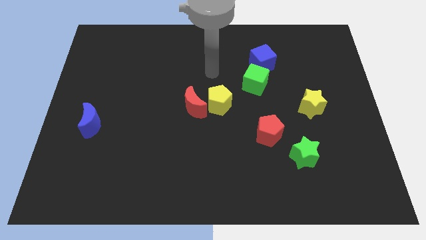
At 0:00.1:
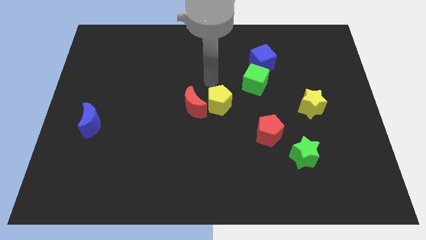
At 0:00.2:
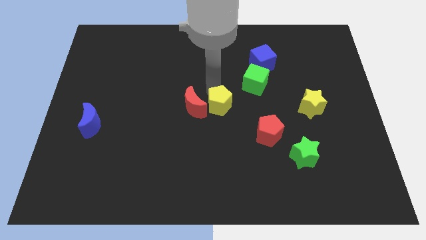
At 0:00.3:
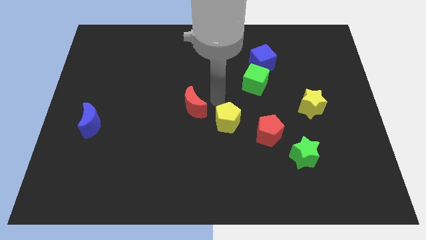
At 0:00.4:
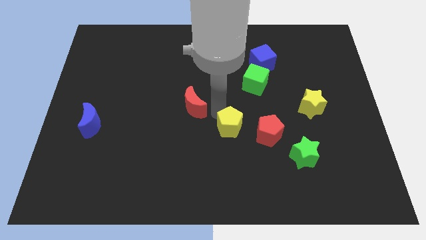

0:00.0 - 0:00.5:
separate the red moon from the yellow pentagon

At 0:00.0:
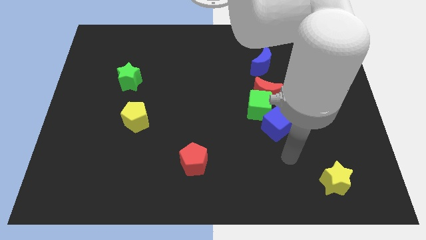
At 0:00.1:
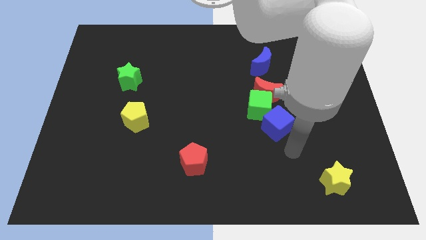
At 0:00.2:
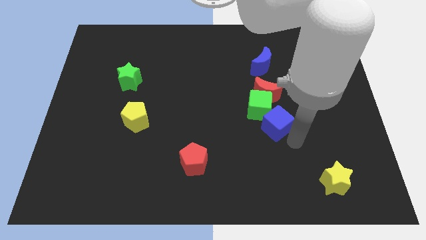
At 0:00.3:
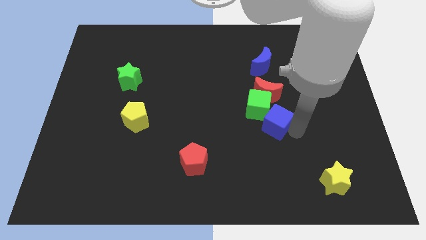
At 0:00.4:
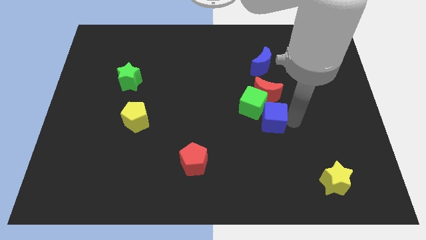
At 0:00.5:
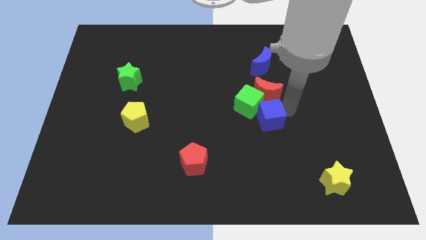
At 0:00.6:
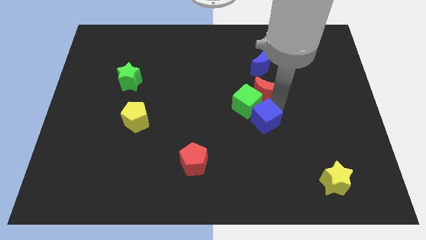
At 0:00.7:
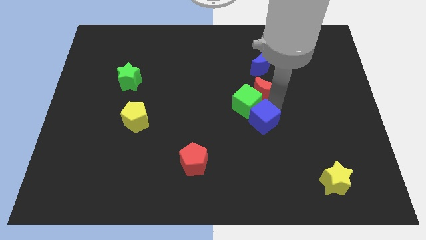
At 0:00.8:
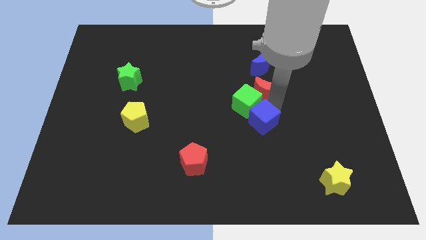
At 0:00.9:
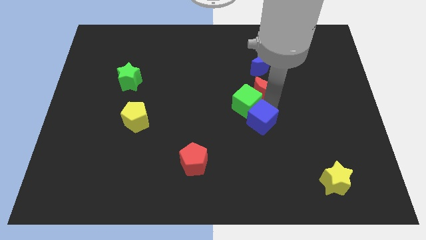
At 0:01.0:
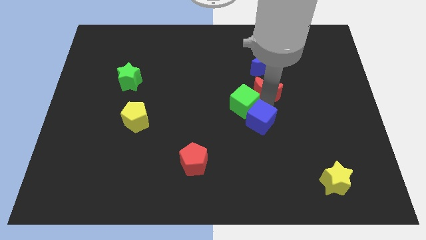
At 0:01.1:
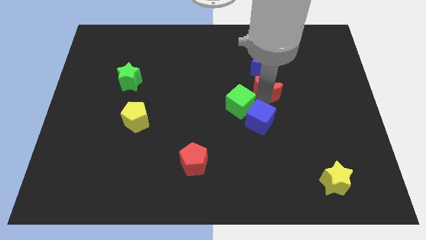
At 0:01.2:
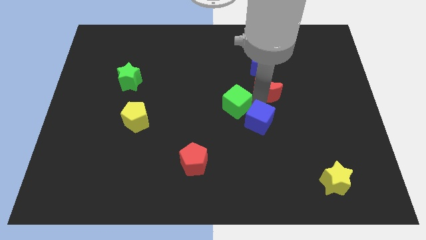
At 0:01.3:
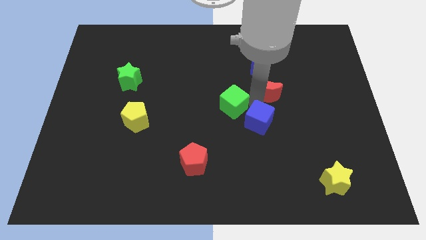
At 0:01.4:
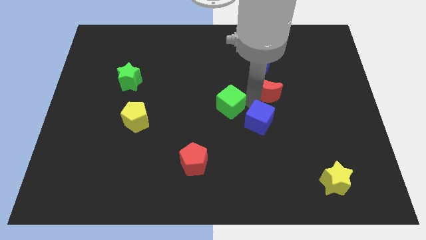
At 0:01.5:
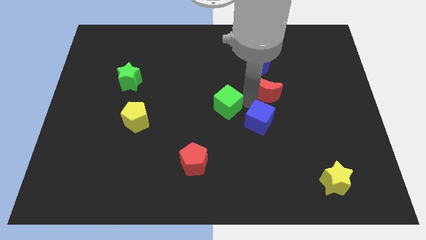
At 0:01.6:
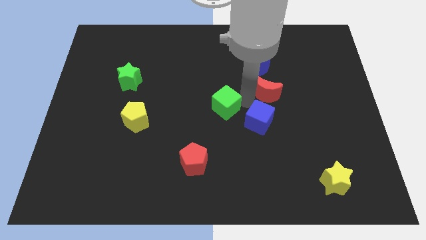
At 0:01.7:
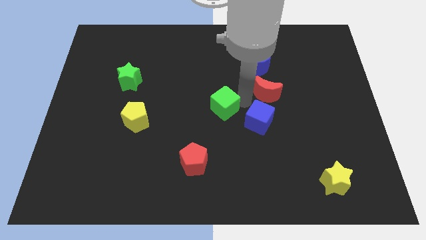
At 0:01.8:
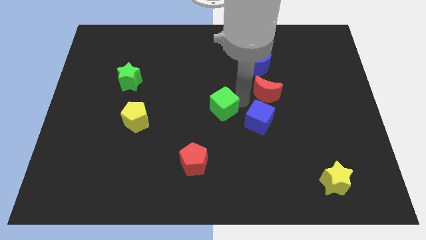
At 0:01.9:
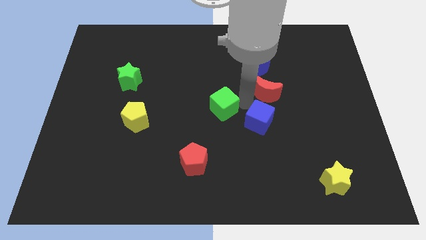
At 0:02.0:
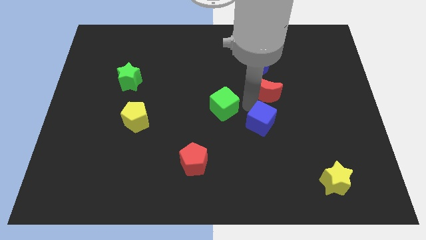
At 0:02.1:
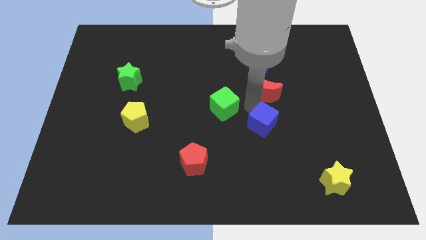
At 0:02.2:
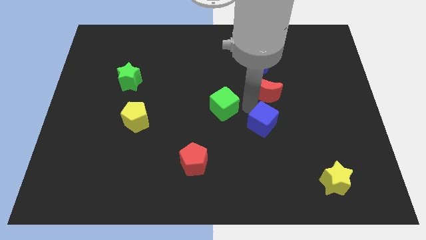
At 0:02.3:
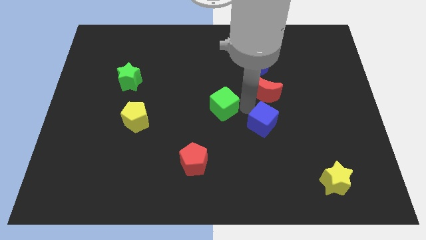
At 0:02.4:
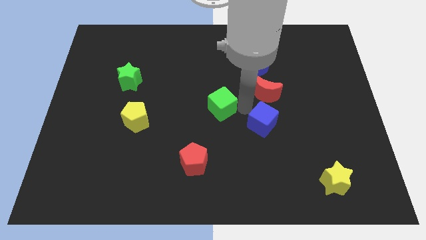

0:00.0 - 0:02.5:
pull the green cube apart from the red moon and blue cube

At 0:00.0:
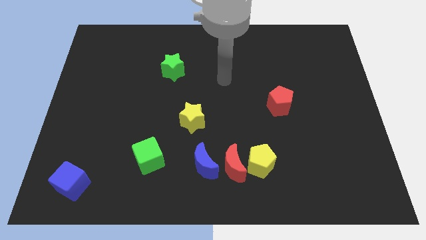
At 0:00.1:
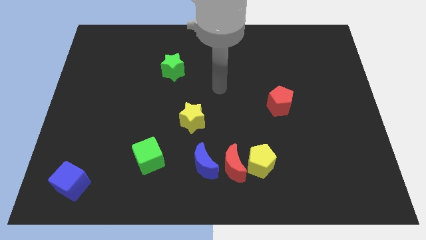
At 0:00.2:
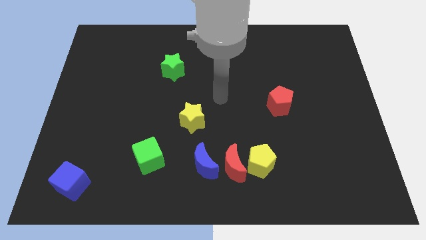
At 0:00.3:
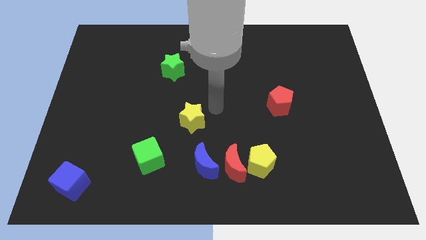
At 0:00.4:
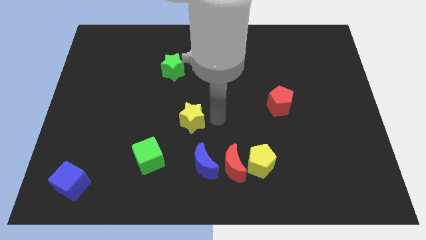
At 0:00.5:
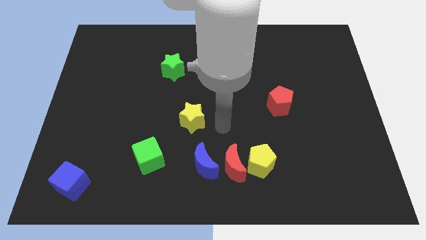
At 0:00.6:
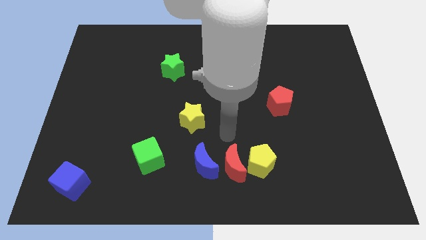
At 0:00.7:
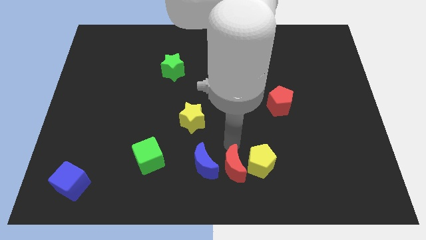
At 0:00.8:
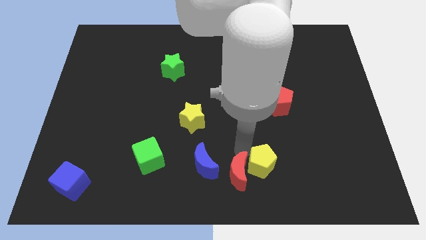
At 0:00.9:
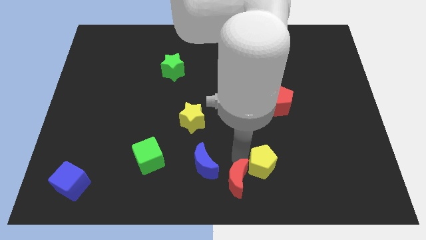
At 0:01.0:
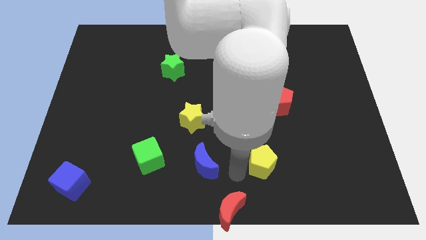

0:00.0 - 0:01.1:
move the yellow pentagon away from the red moon

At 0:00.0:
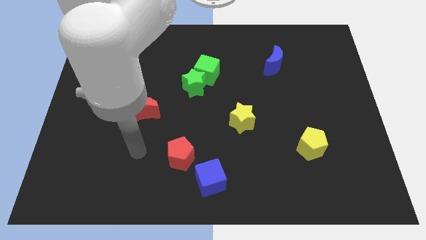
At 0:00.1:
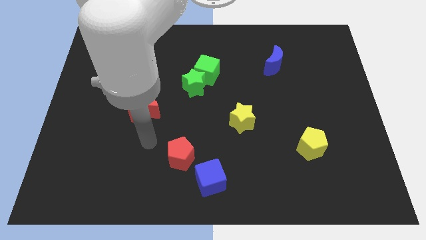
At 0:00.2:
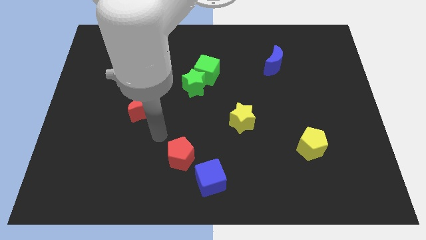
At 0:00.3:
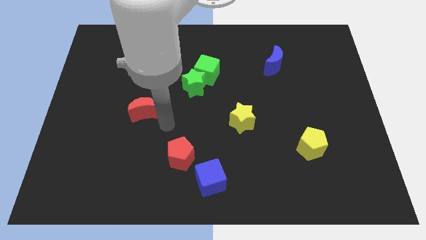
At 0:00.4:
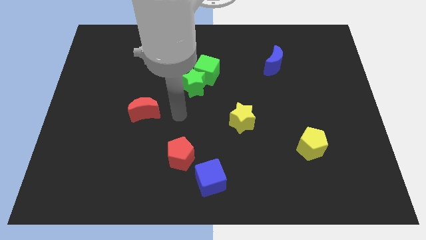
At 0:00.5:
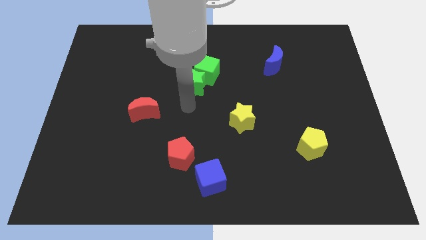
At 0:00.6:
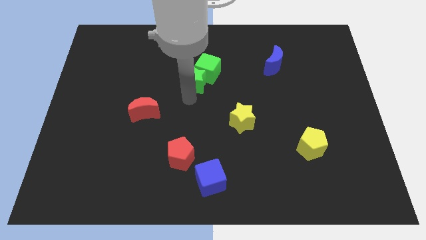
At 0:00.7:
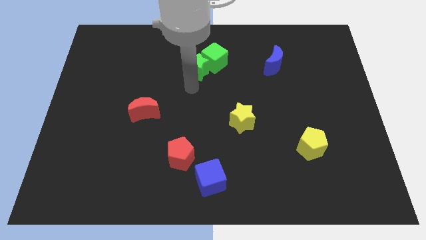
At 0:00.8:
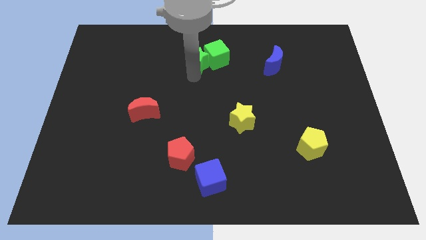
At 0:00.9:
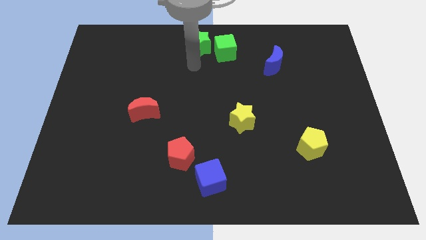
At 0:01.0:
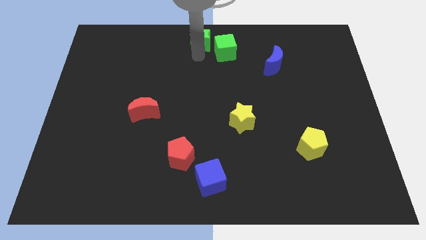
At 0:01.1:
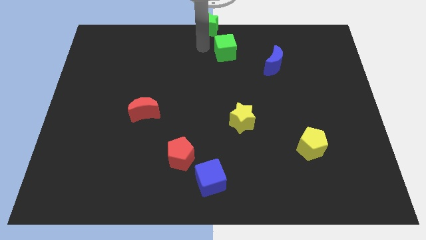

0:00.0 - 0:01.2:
pull the green cube apart from the green star

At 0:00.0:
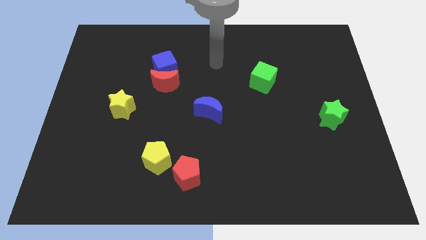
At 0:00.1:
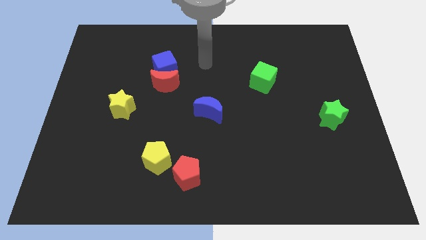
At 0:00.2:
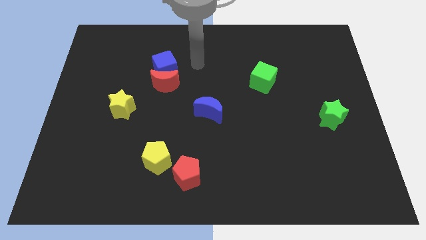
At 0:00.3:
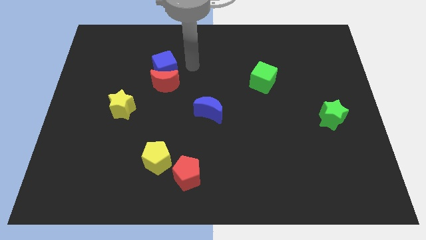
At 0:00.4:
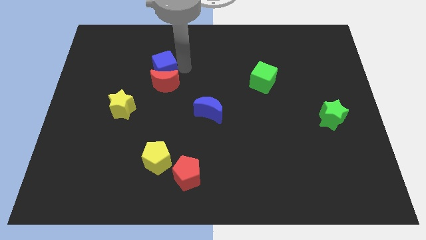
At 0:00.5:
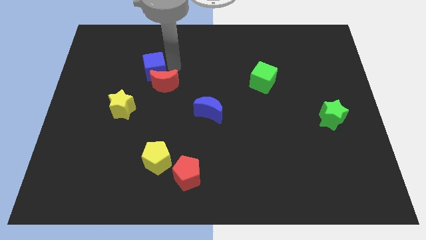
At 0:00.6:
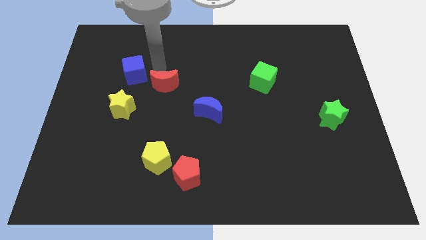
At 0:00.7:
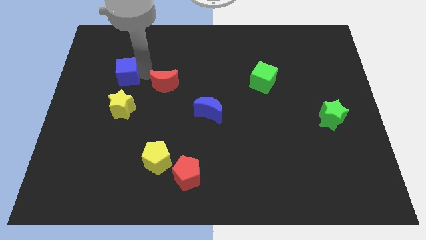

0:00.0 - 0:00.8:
separate the red moon from the blue cube

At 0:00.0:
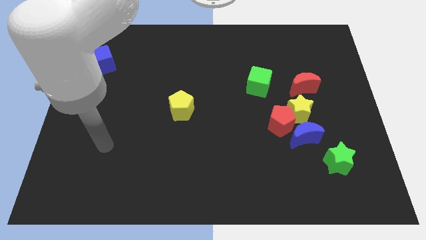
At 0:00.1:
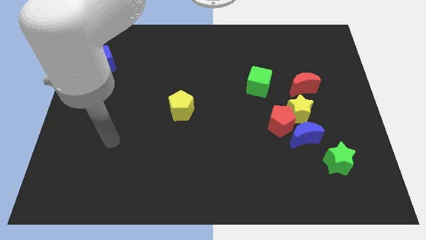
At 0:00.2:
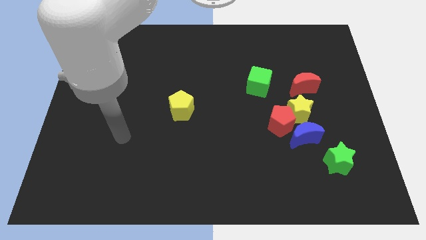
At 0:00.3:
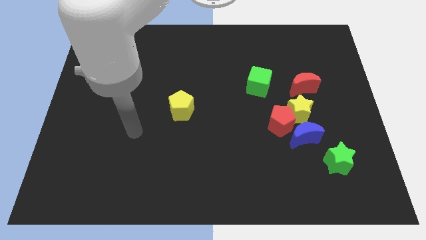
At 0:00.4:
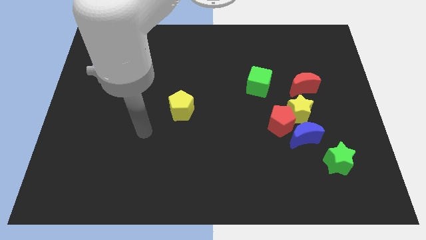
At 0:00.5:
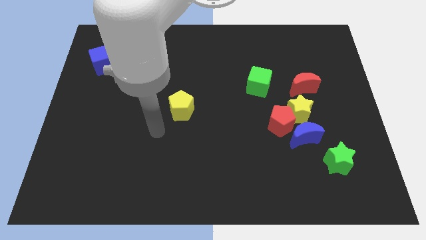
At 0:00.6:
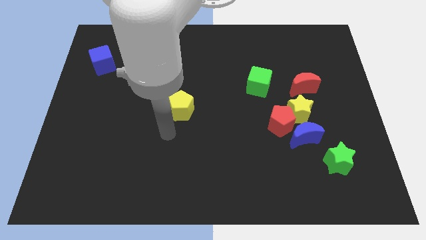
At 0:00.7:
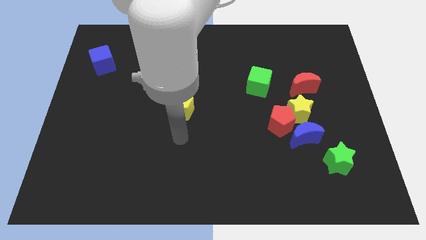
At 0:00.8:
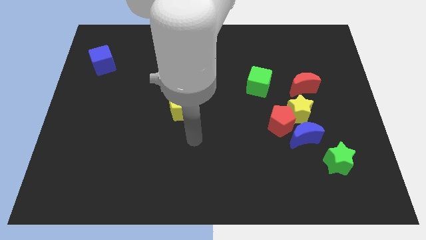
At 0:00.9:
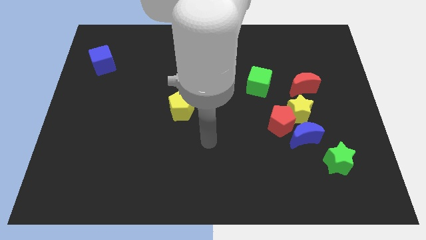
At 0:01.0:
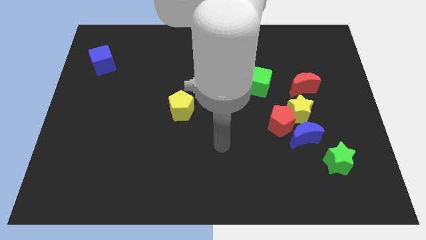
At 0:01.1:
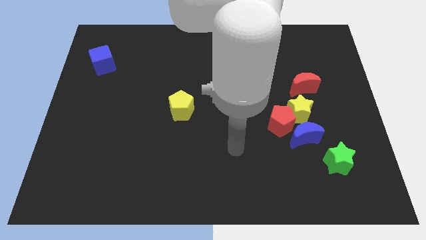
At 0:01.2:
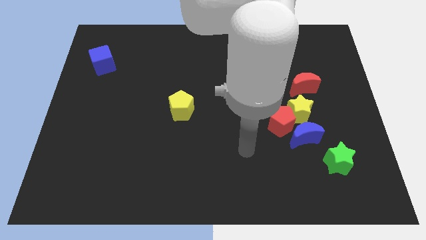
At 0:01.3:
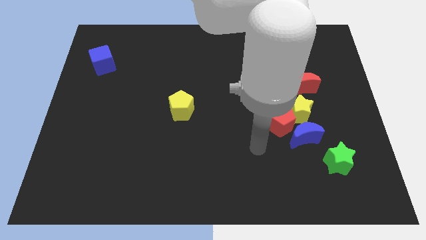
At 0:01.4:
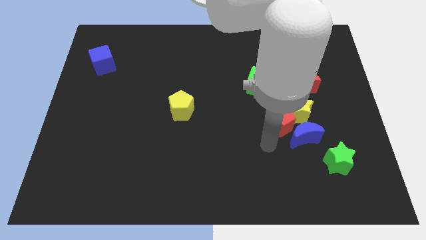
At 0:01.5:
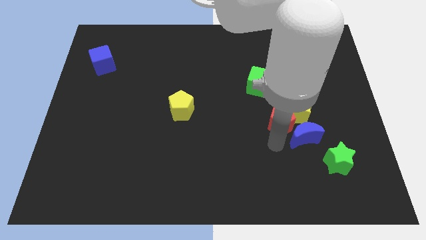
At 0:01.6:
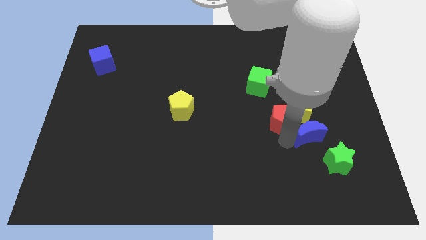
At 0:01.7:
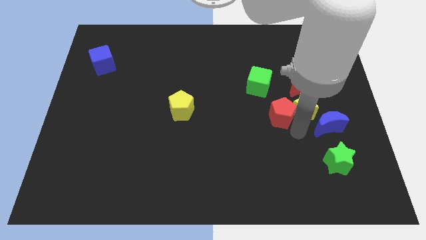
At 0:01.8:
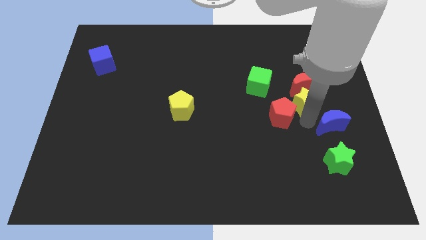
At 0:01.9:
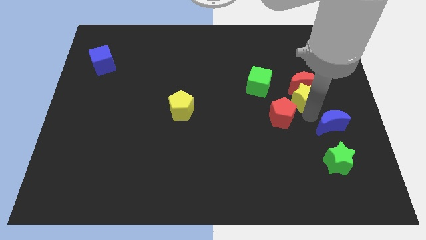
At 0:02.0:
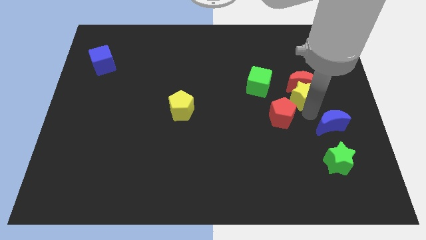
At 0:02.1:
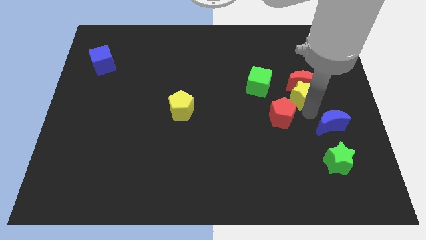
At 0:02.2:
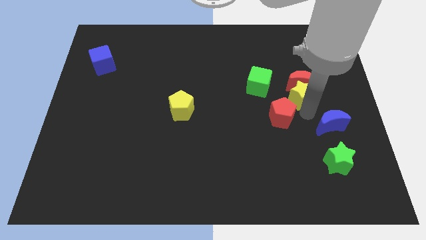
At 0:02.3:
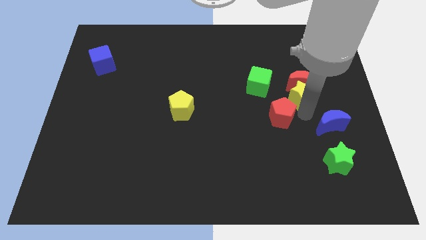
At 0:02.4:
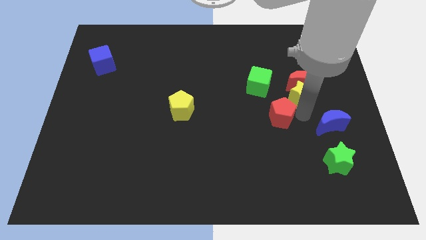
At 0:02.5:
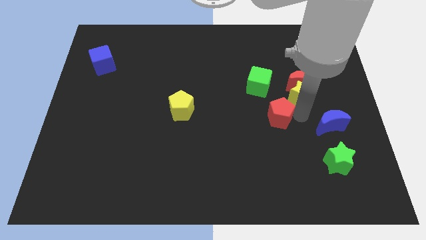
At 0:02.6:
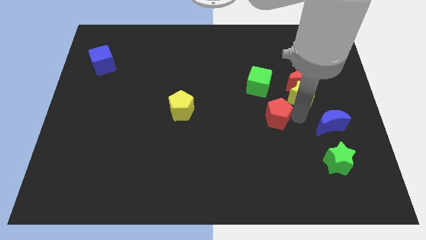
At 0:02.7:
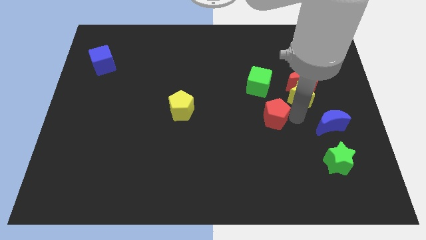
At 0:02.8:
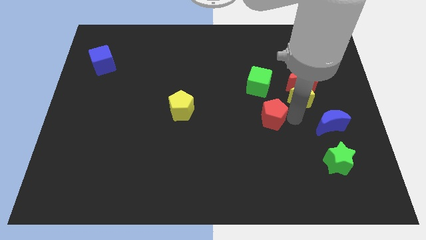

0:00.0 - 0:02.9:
pull the red pentagon apart from the yellow star and blue moon

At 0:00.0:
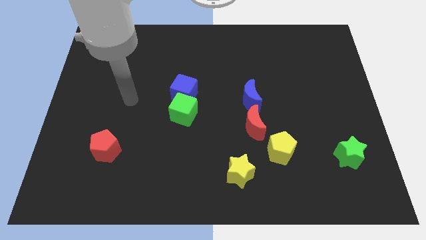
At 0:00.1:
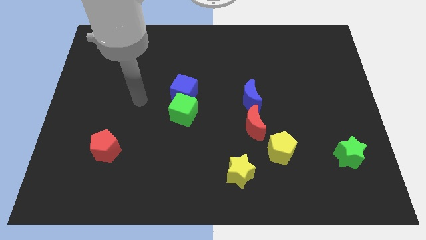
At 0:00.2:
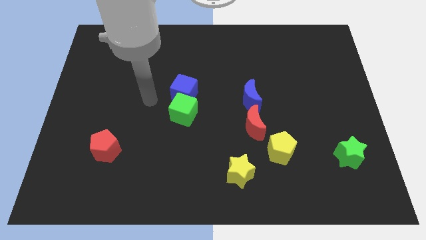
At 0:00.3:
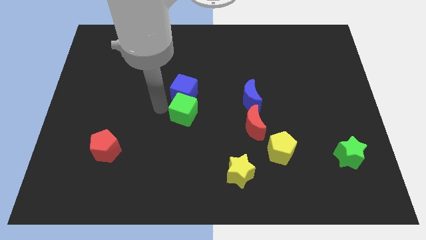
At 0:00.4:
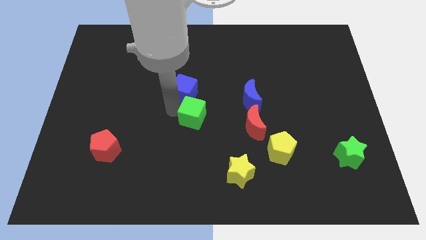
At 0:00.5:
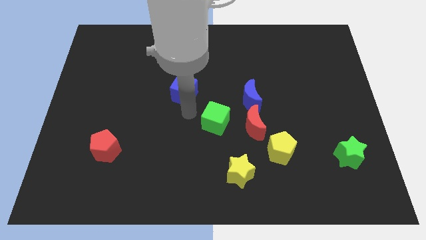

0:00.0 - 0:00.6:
pull the blue cube apart from the green cube
